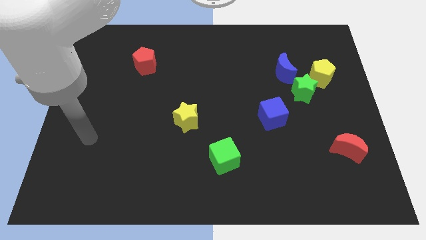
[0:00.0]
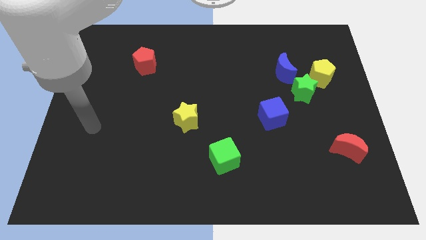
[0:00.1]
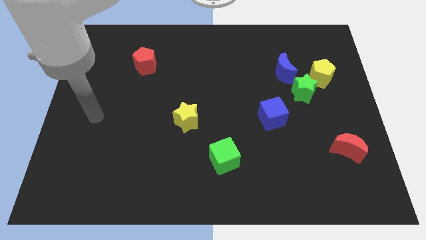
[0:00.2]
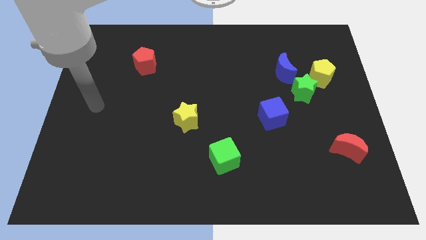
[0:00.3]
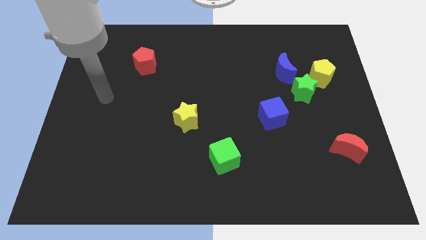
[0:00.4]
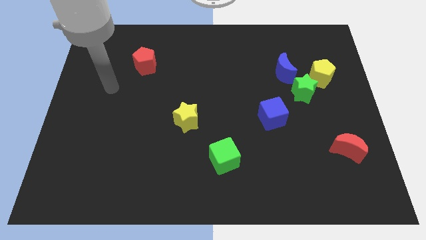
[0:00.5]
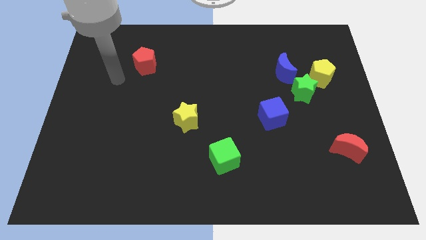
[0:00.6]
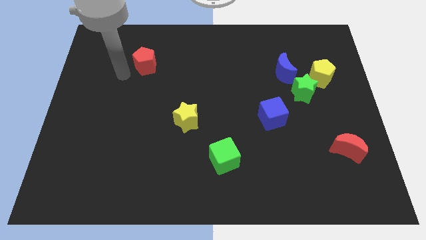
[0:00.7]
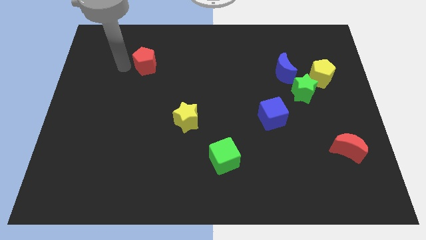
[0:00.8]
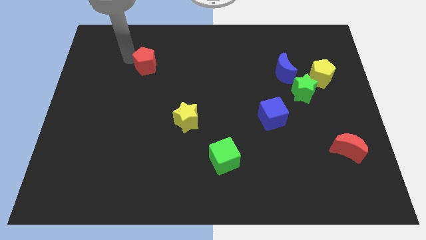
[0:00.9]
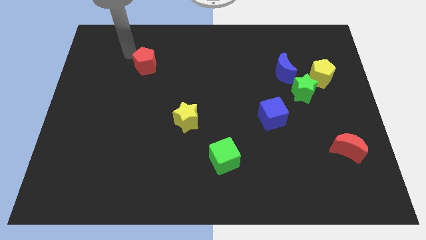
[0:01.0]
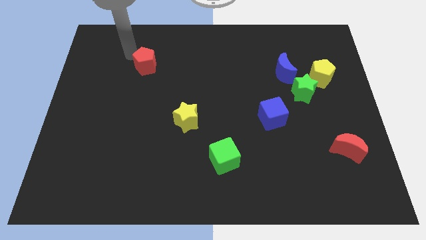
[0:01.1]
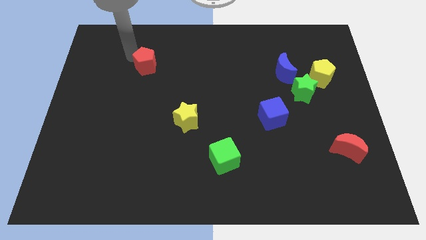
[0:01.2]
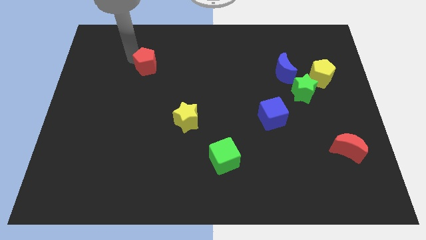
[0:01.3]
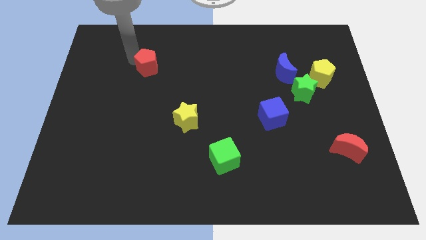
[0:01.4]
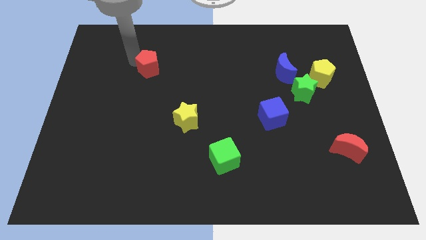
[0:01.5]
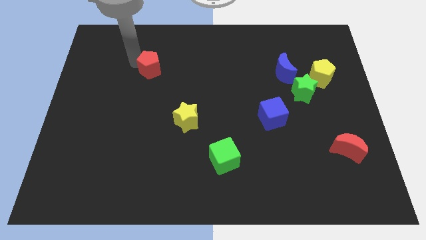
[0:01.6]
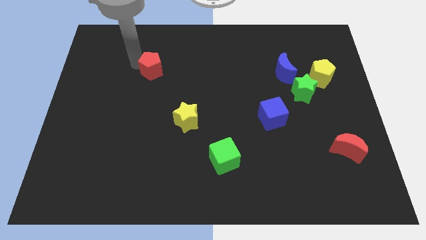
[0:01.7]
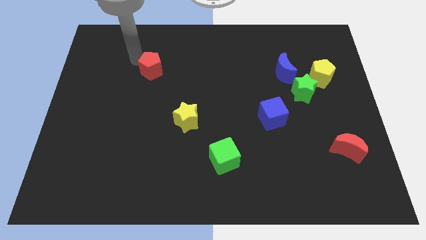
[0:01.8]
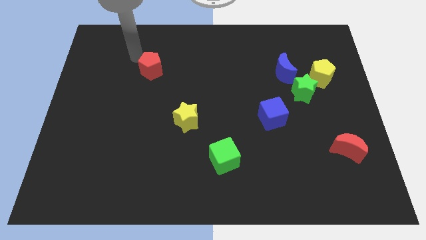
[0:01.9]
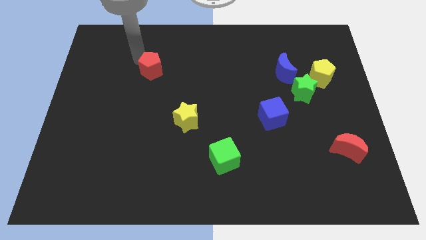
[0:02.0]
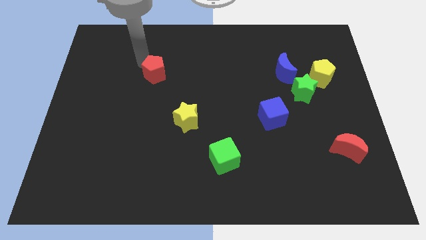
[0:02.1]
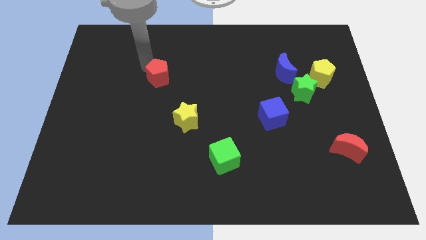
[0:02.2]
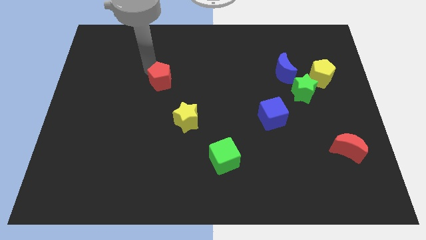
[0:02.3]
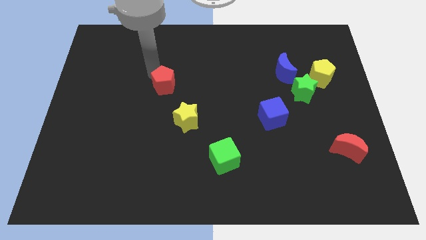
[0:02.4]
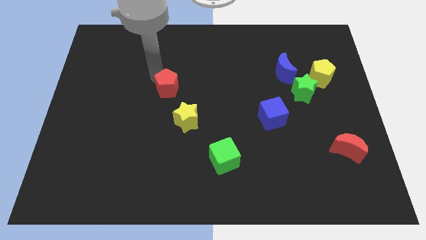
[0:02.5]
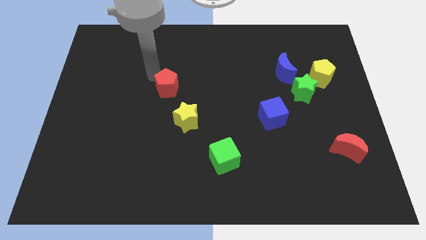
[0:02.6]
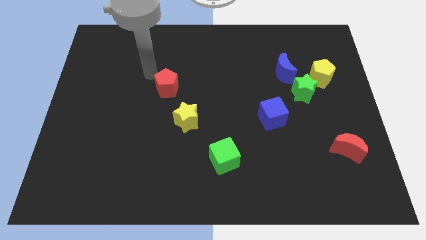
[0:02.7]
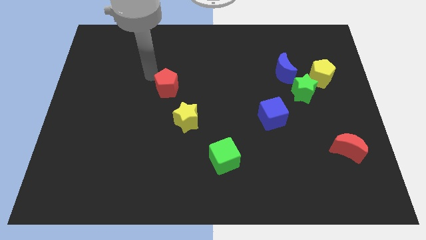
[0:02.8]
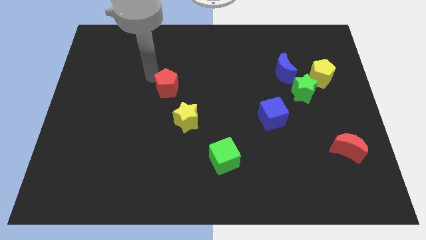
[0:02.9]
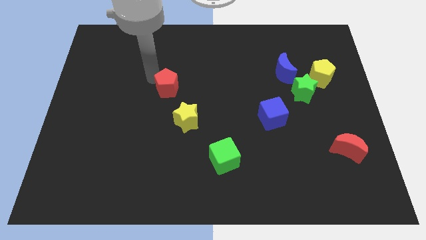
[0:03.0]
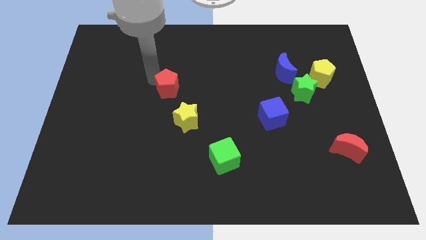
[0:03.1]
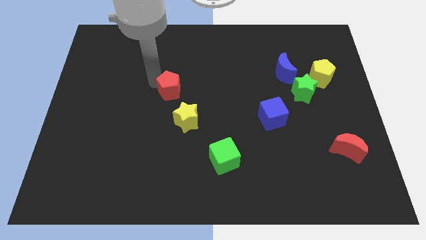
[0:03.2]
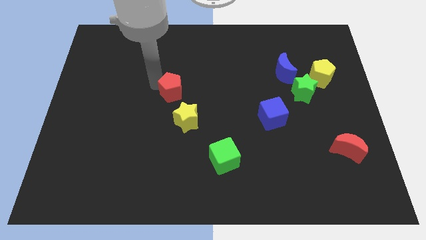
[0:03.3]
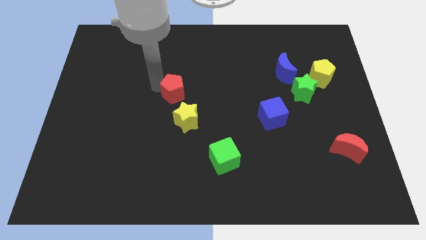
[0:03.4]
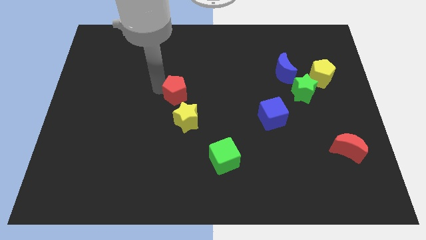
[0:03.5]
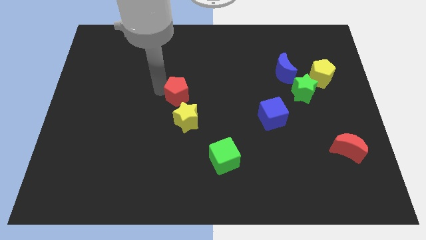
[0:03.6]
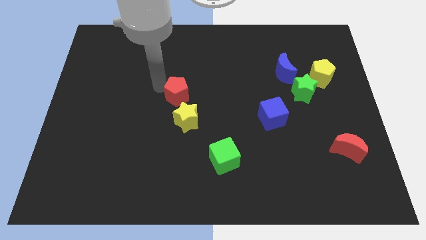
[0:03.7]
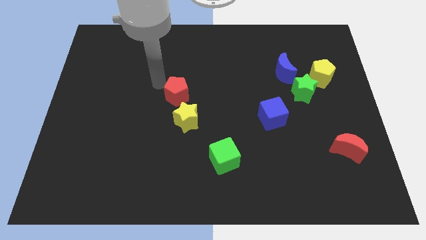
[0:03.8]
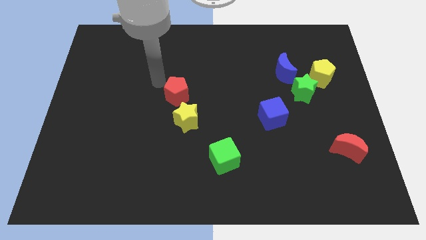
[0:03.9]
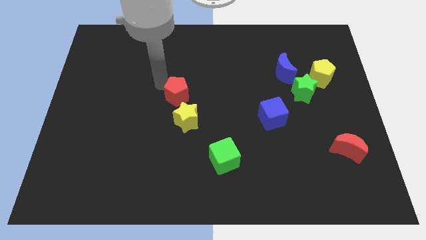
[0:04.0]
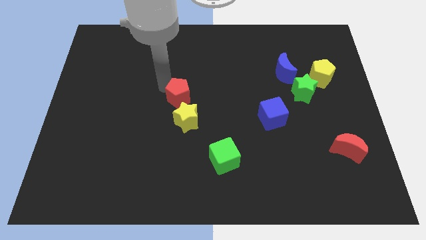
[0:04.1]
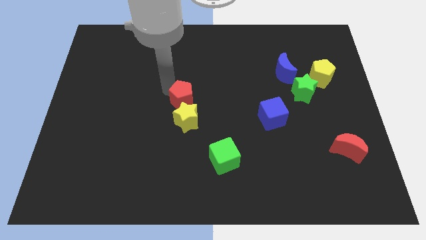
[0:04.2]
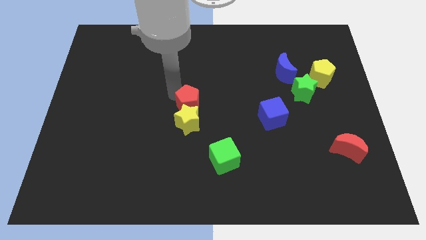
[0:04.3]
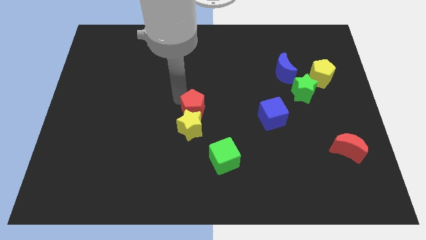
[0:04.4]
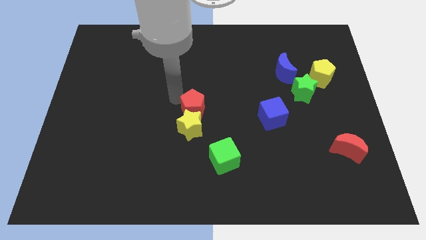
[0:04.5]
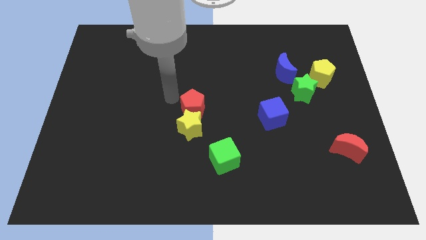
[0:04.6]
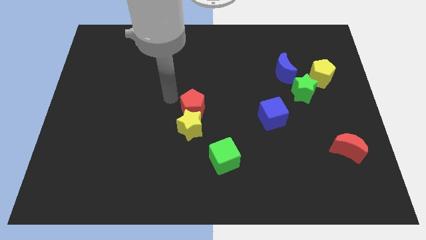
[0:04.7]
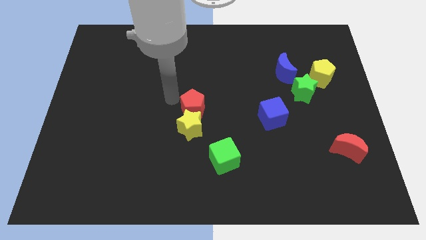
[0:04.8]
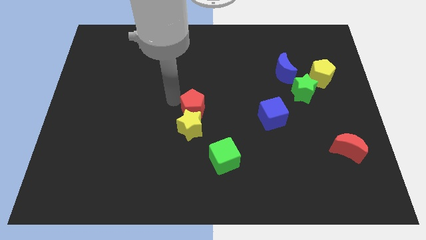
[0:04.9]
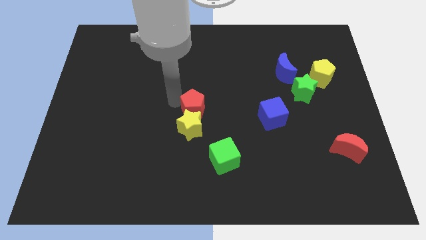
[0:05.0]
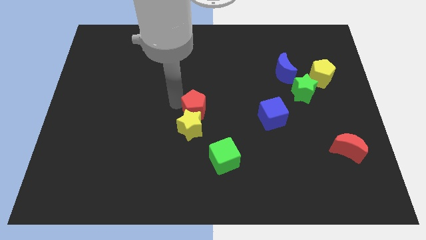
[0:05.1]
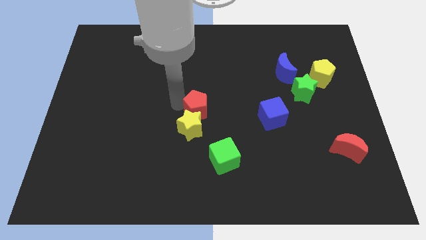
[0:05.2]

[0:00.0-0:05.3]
slide the red pentagon downwards and to the right

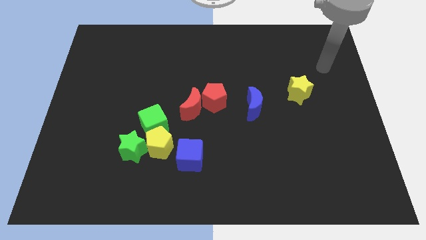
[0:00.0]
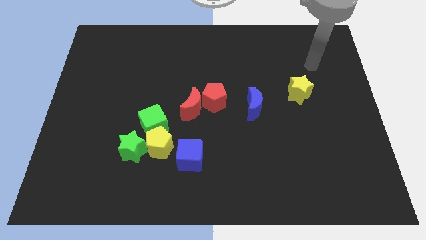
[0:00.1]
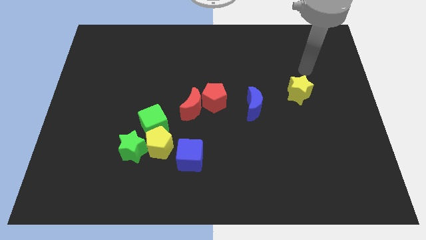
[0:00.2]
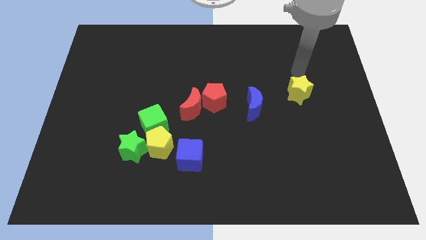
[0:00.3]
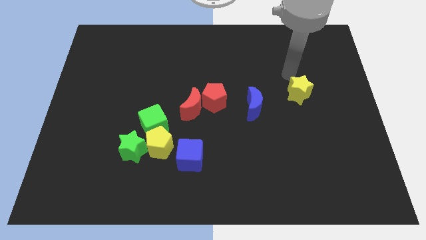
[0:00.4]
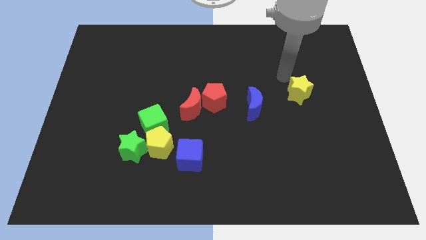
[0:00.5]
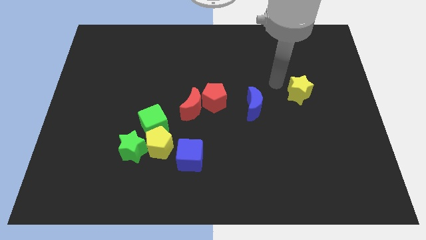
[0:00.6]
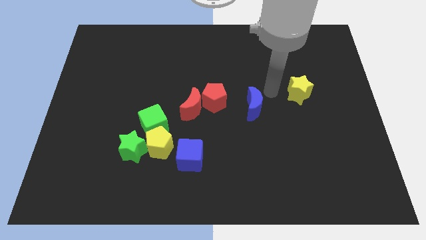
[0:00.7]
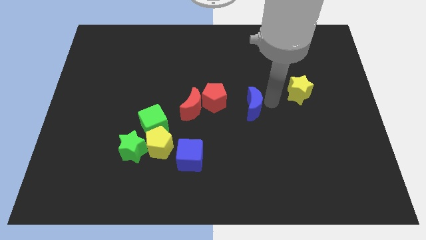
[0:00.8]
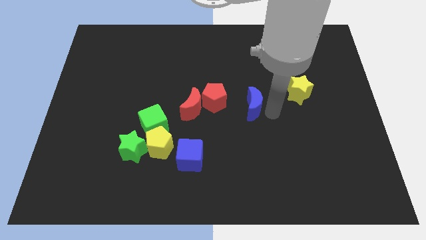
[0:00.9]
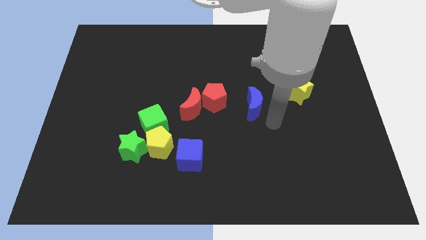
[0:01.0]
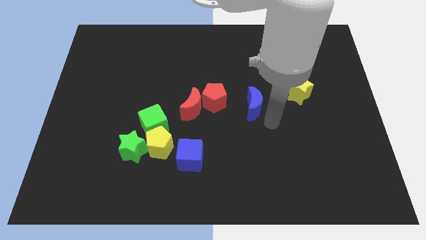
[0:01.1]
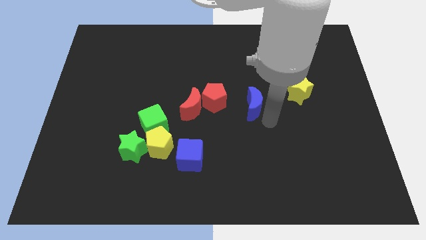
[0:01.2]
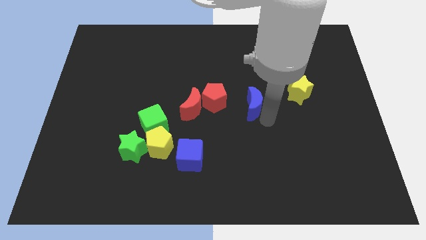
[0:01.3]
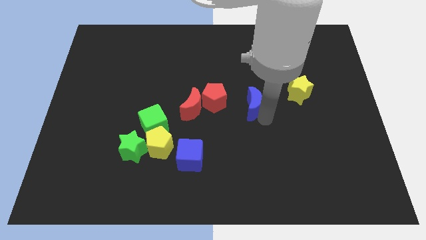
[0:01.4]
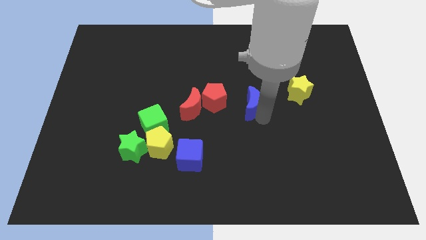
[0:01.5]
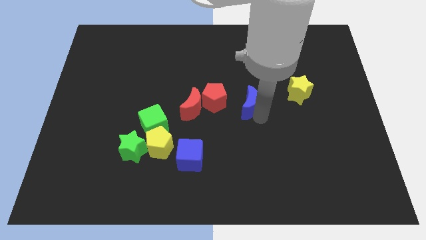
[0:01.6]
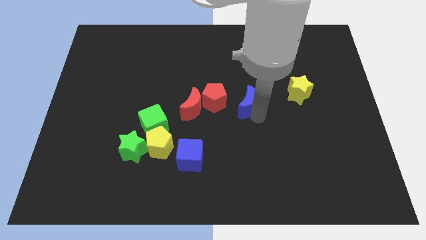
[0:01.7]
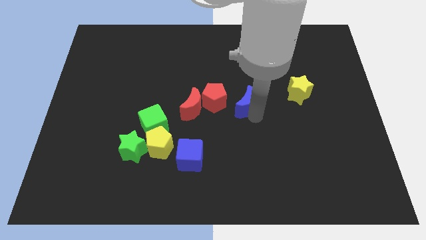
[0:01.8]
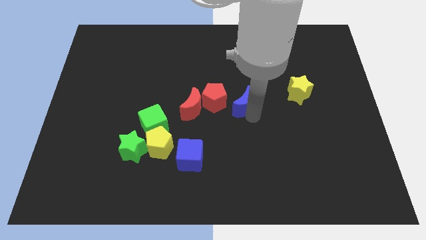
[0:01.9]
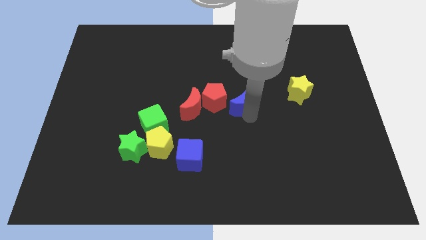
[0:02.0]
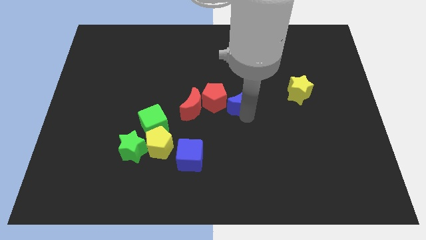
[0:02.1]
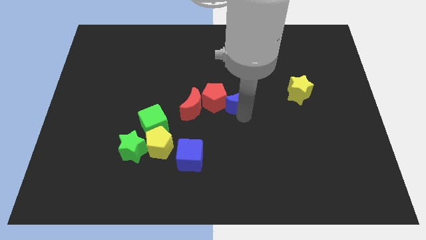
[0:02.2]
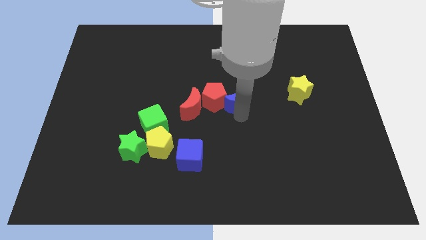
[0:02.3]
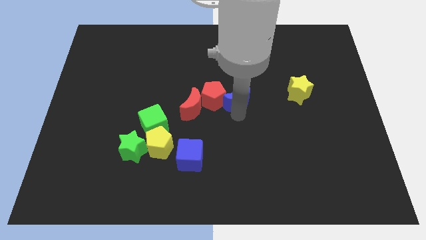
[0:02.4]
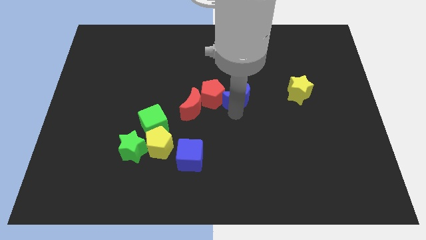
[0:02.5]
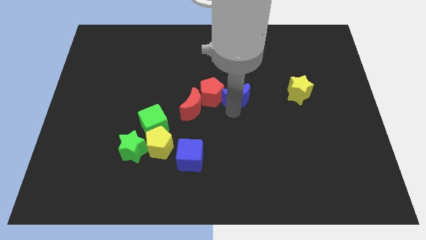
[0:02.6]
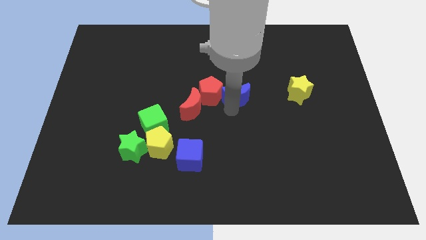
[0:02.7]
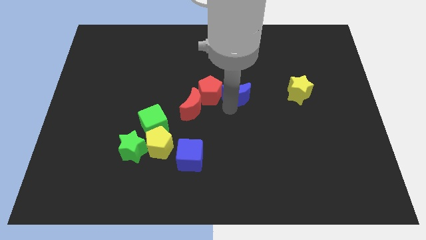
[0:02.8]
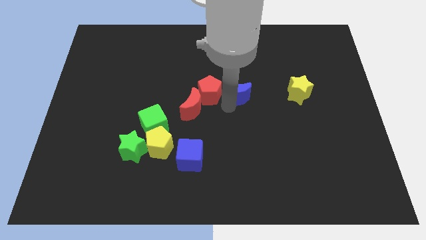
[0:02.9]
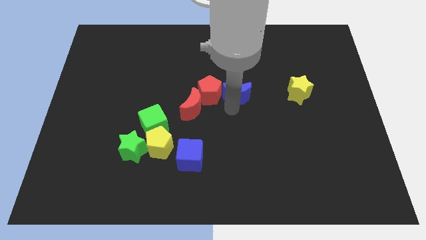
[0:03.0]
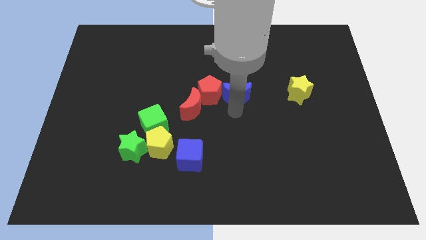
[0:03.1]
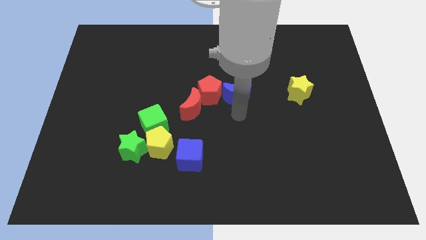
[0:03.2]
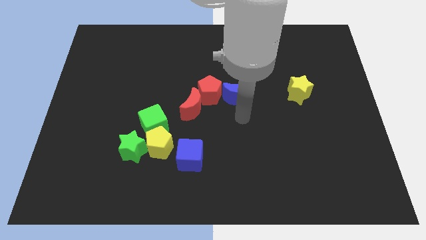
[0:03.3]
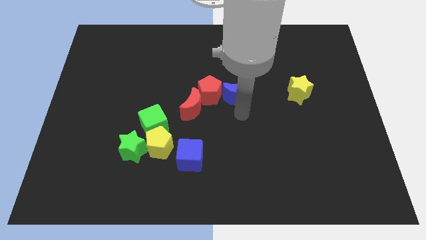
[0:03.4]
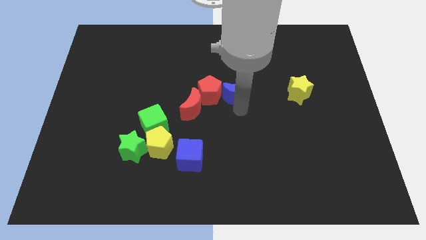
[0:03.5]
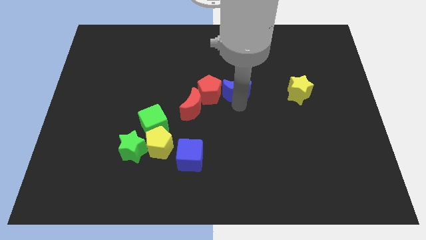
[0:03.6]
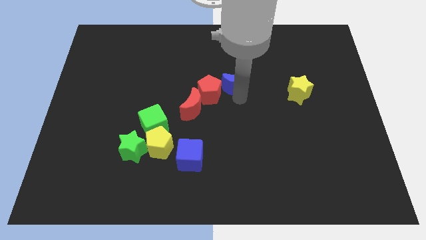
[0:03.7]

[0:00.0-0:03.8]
slide the blue moon upwards and left a little bit
